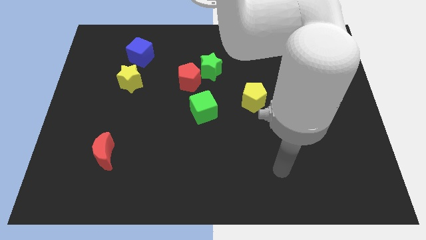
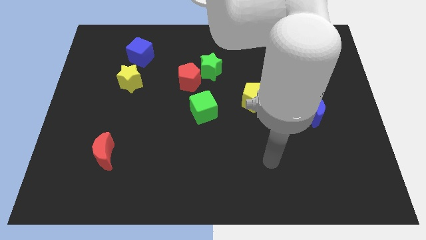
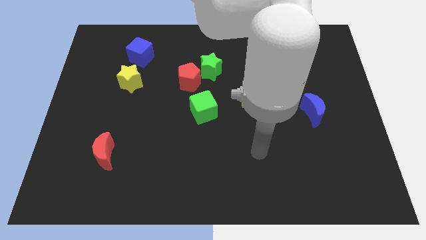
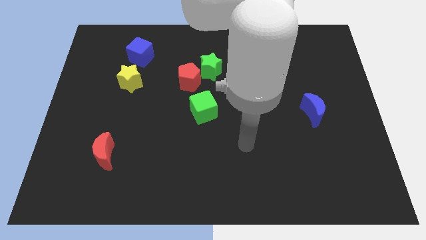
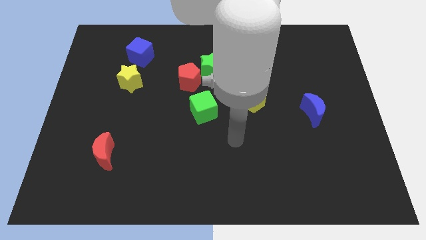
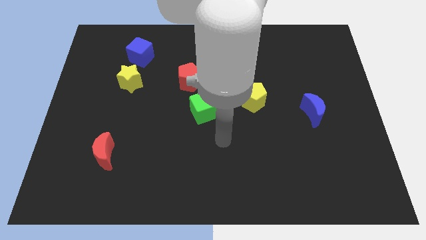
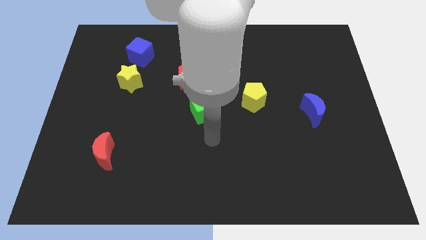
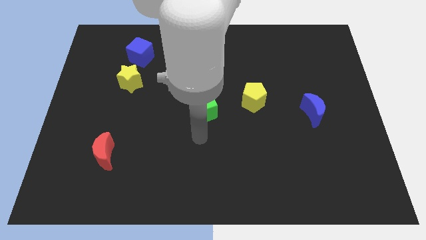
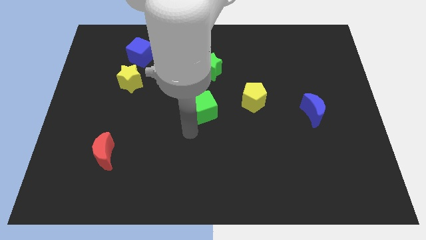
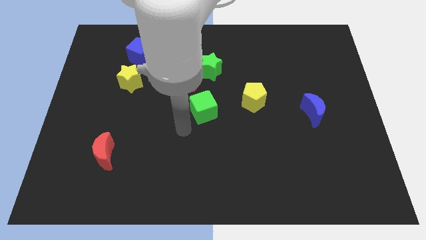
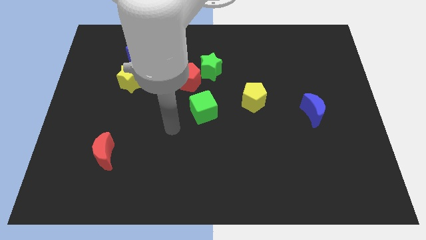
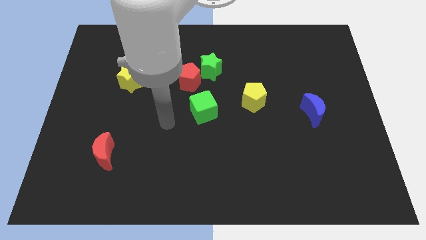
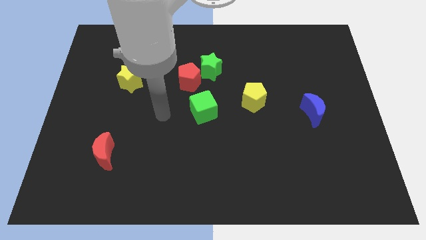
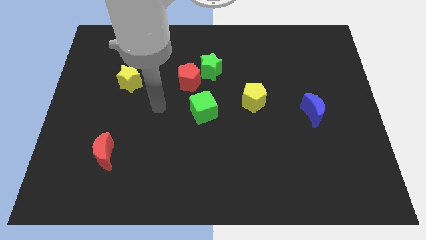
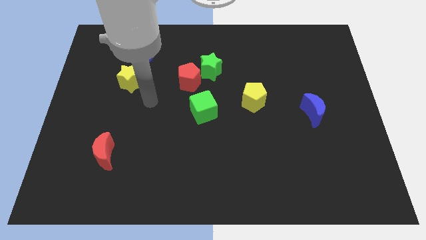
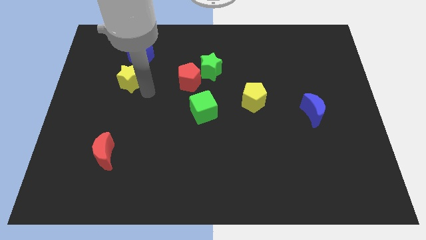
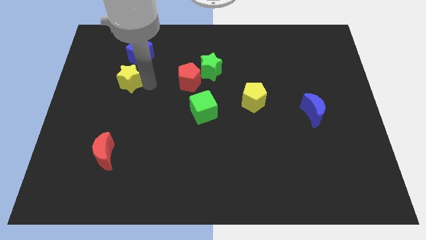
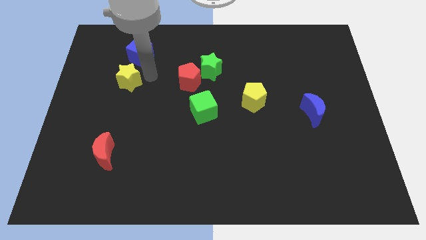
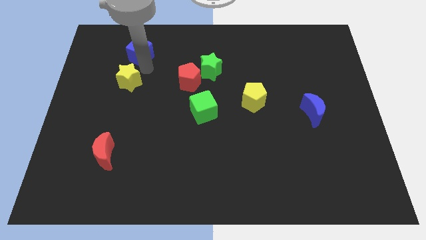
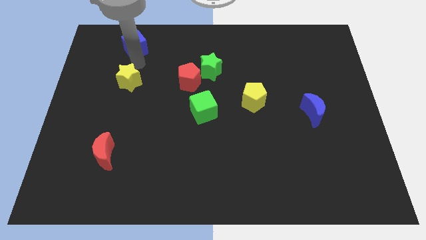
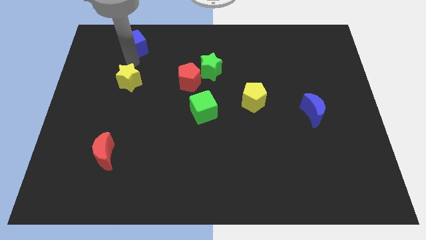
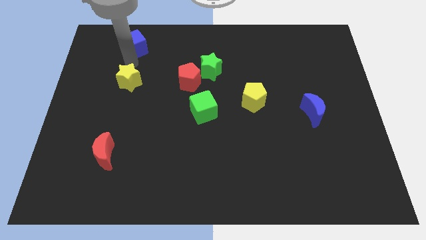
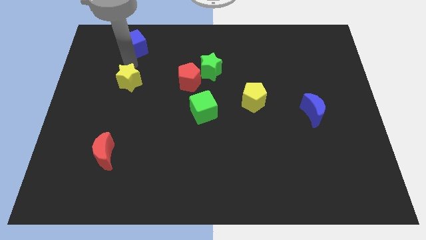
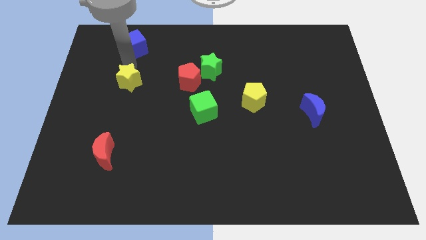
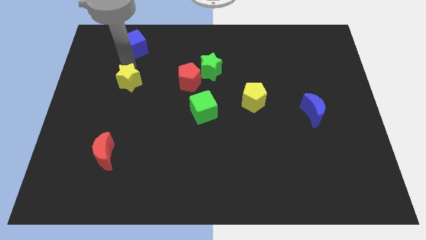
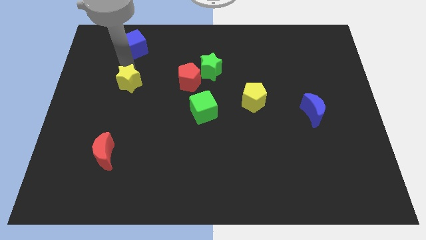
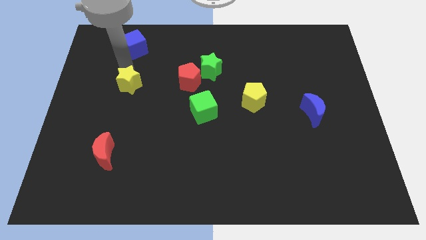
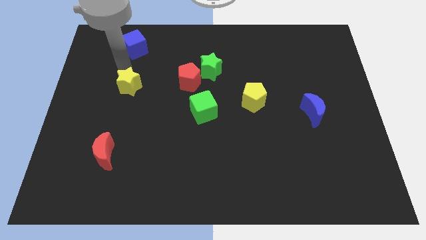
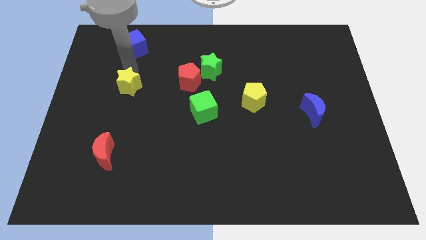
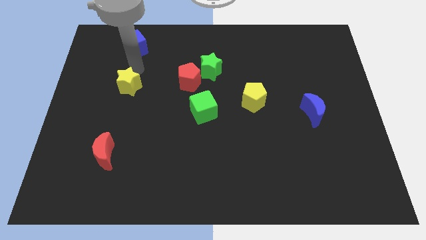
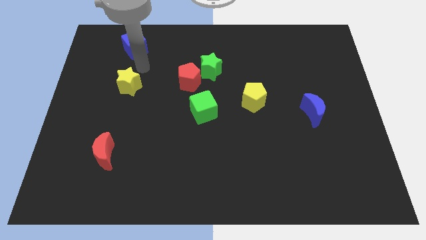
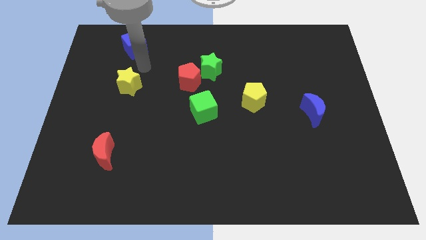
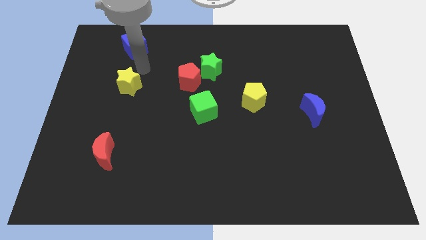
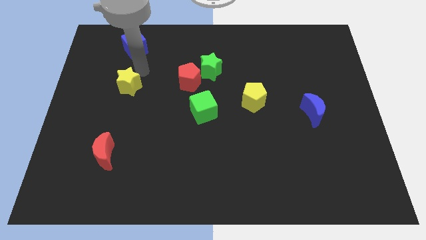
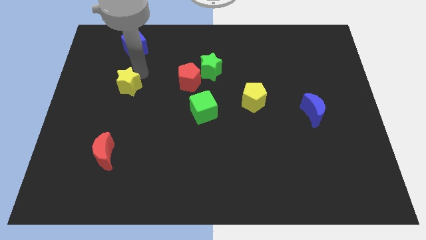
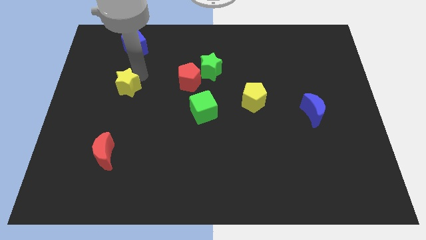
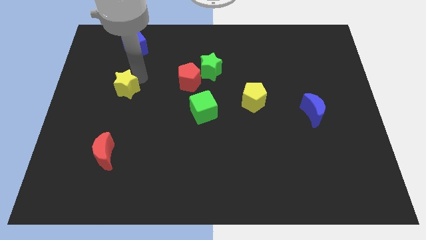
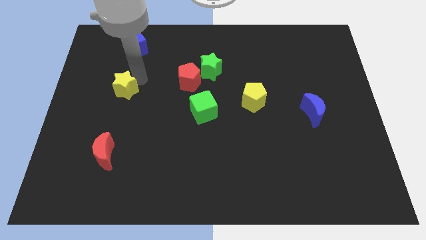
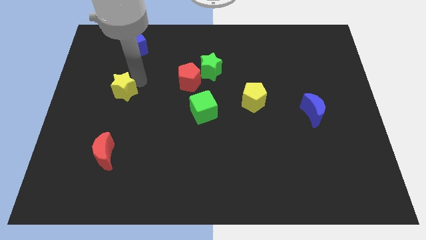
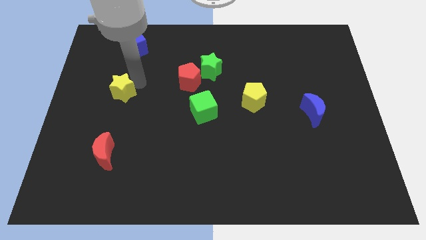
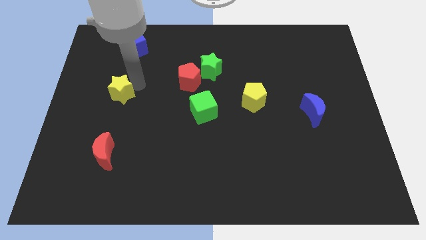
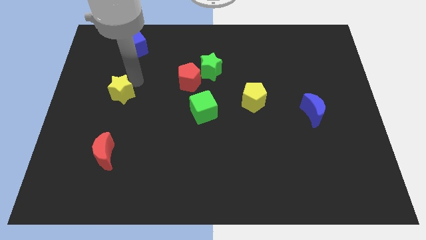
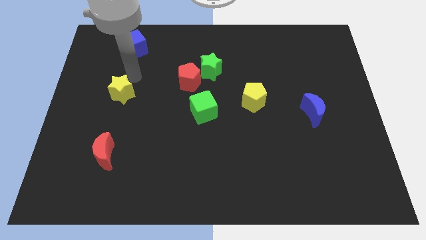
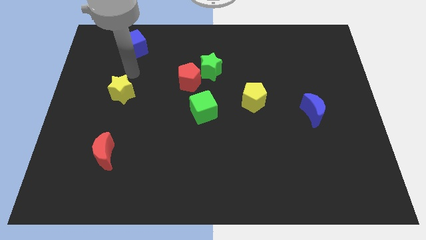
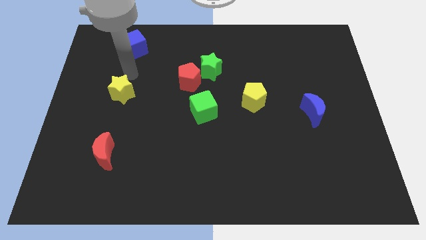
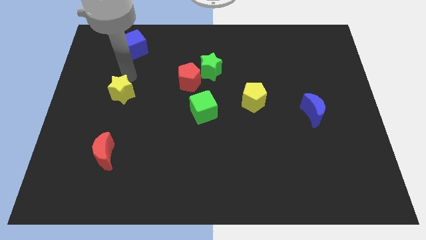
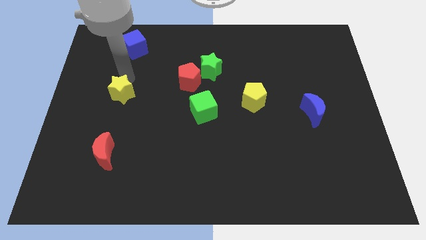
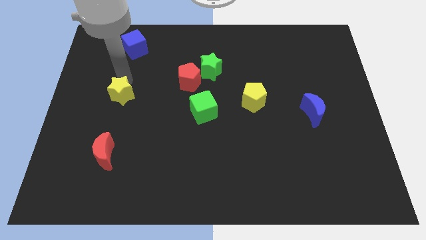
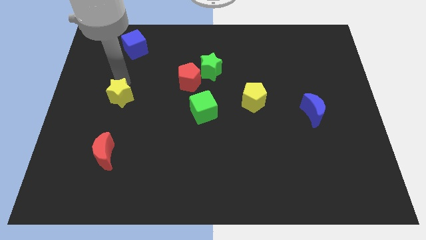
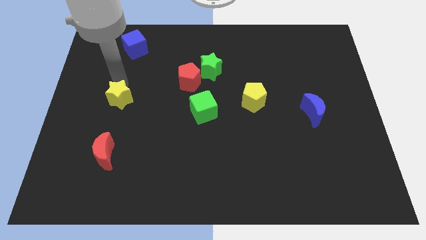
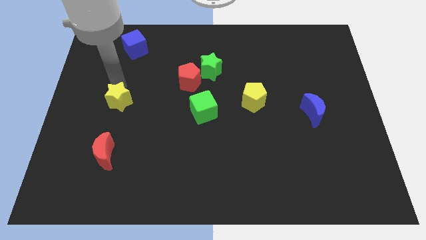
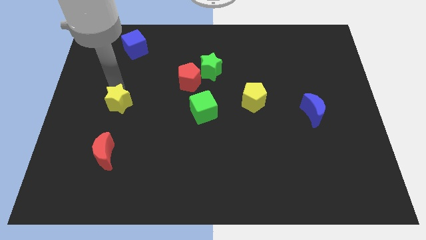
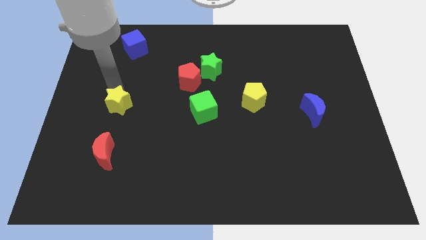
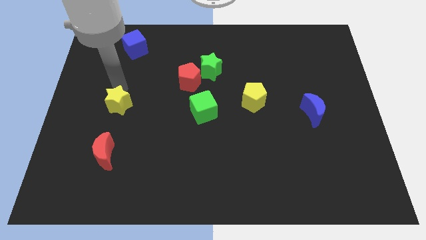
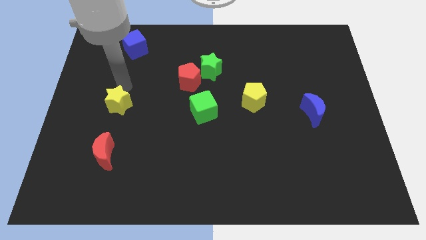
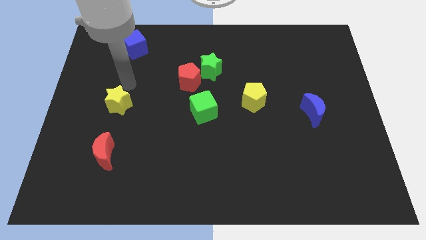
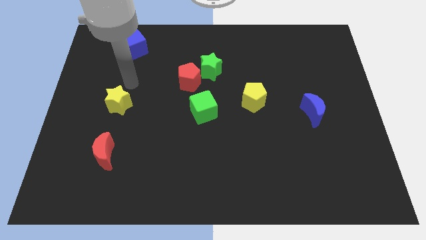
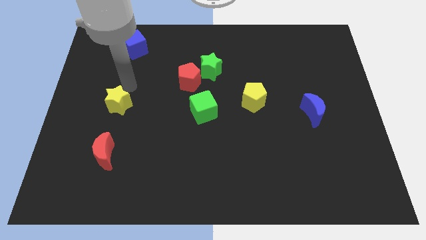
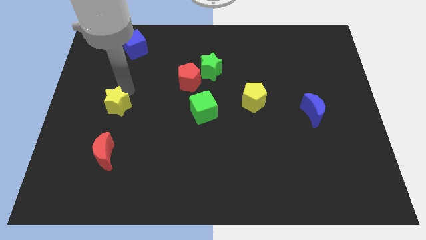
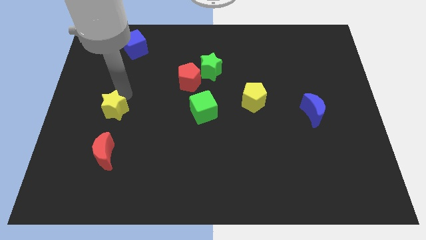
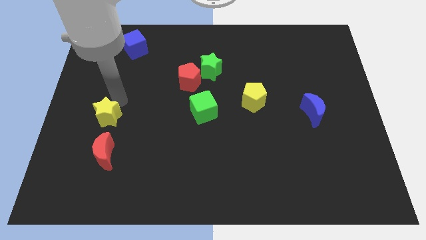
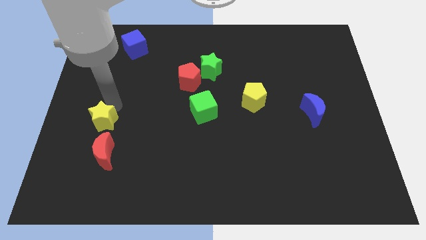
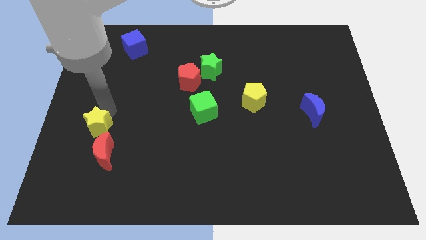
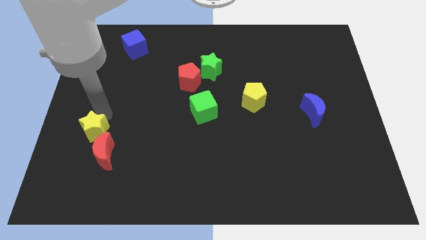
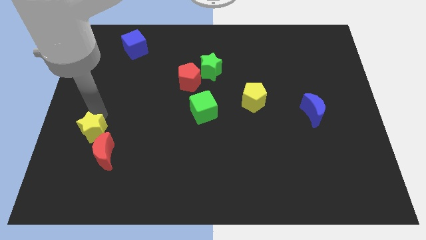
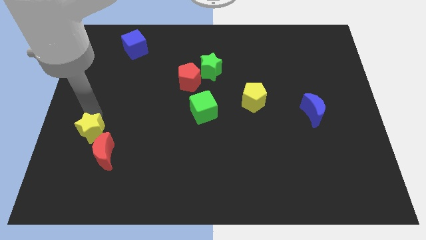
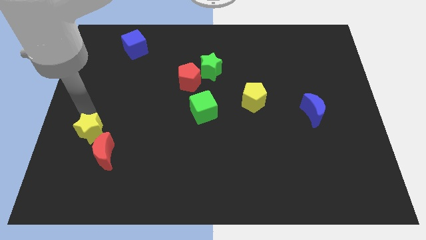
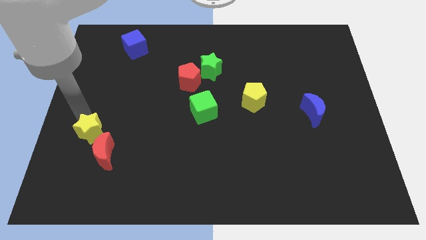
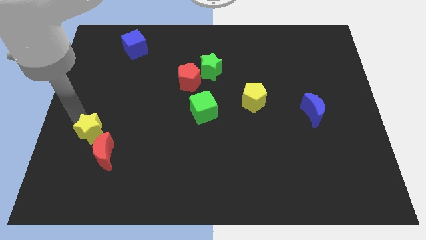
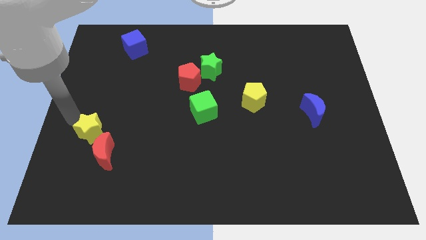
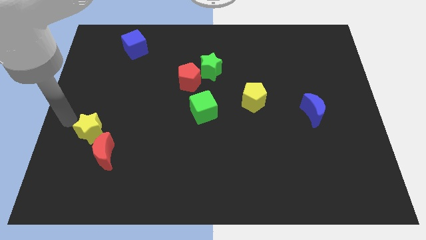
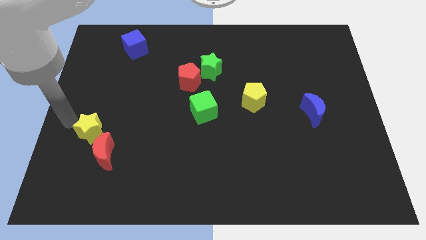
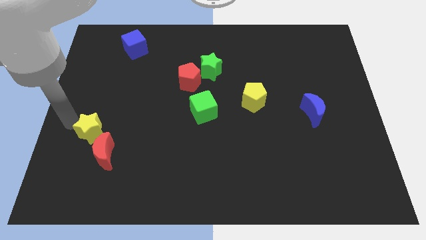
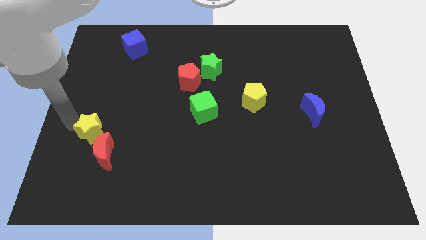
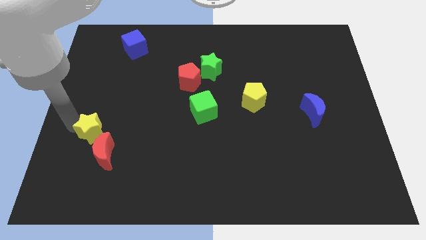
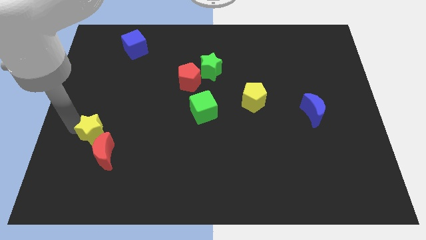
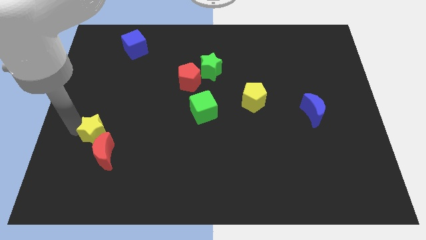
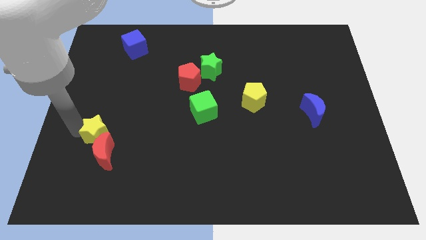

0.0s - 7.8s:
slide the yellow star towards the red moon
